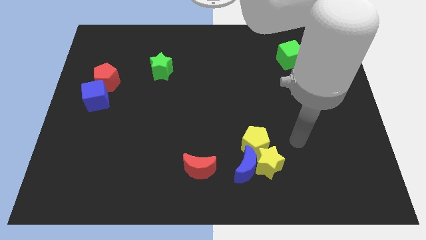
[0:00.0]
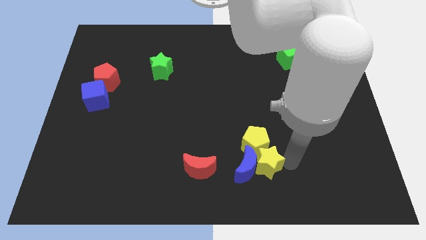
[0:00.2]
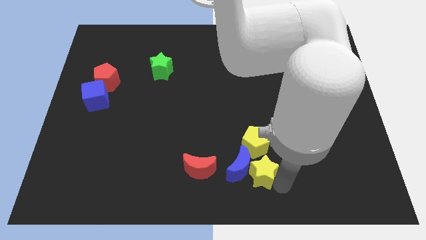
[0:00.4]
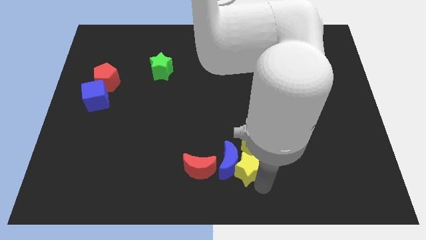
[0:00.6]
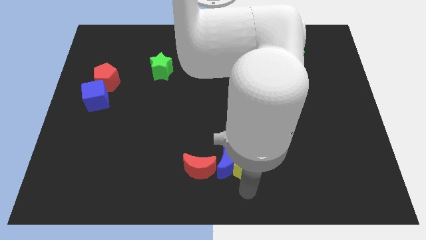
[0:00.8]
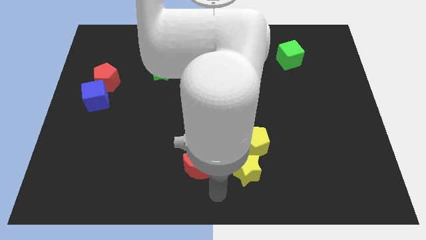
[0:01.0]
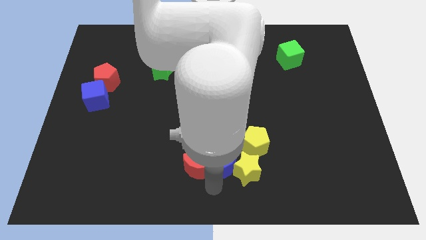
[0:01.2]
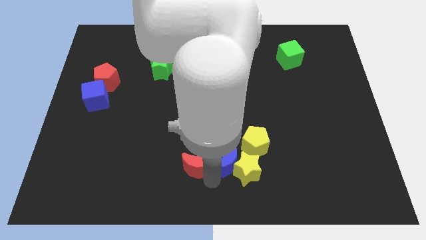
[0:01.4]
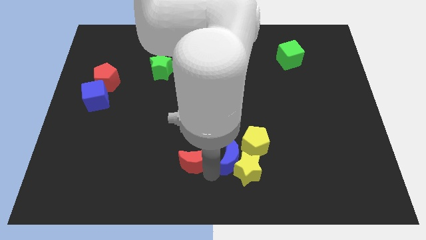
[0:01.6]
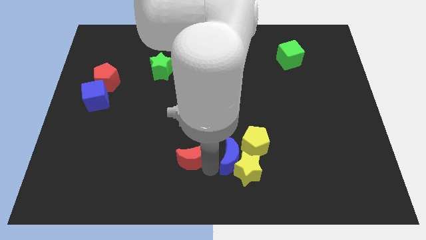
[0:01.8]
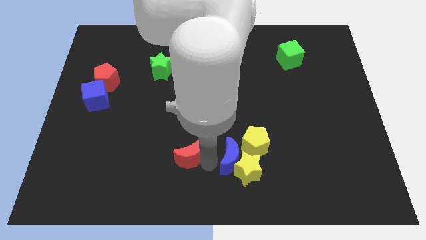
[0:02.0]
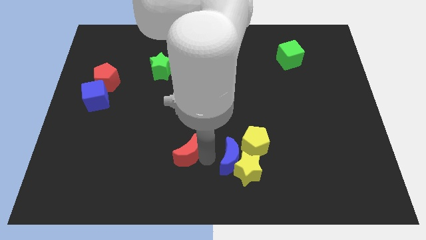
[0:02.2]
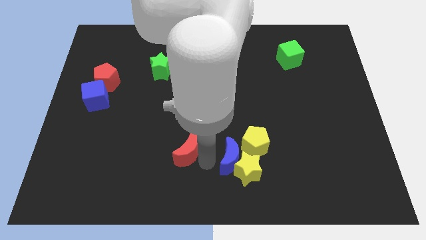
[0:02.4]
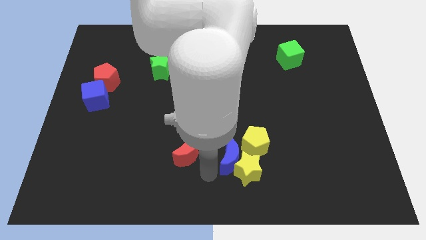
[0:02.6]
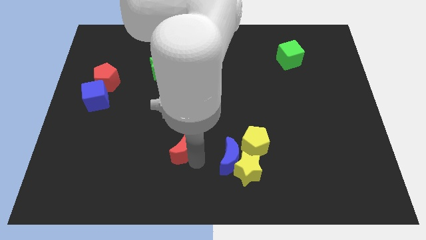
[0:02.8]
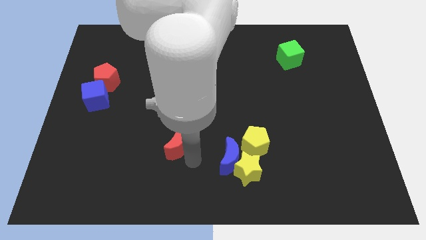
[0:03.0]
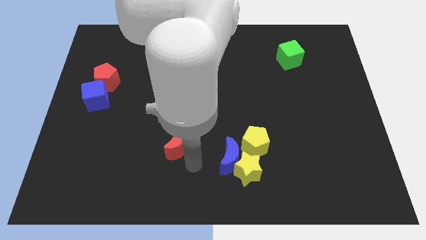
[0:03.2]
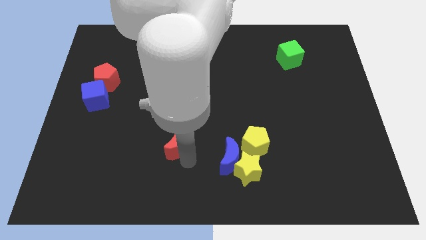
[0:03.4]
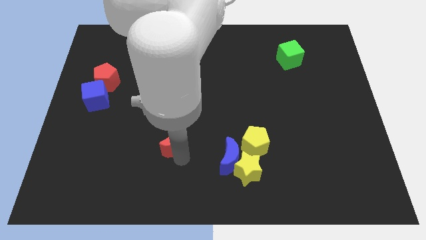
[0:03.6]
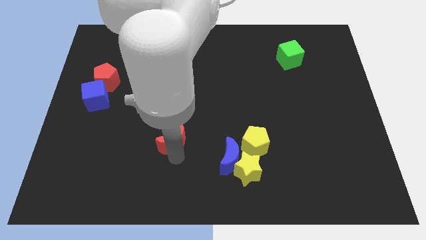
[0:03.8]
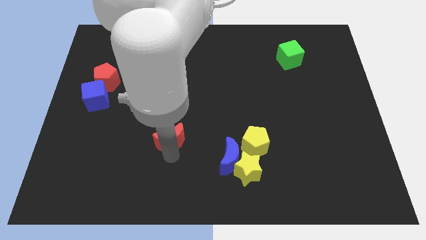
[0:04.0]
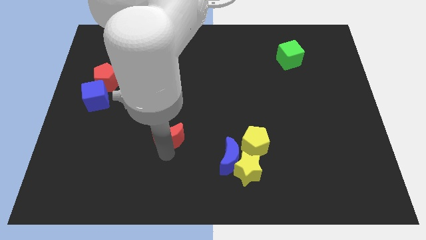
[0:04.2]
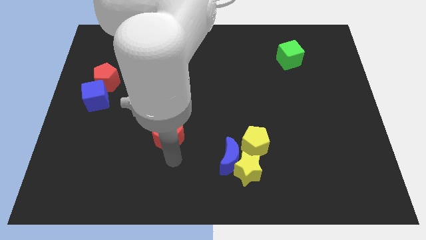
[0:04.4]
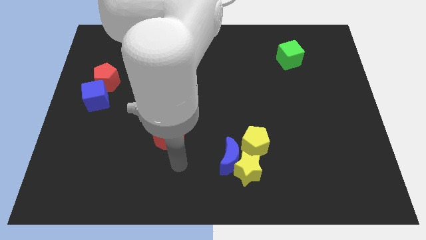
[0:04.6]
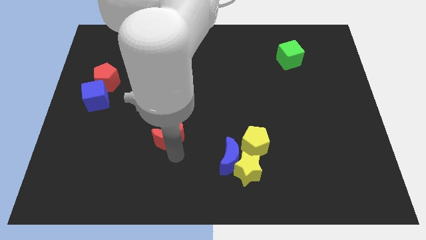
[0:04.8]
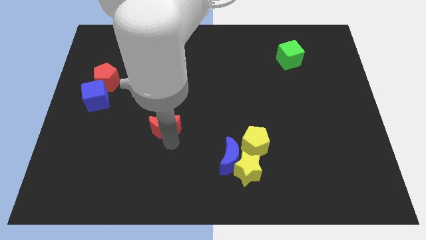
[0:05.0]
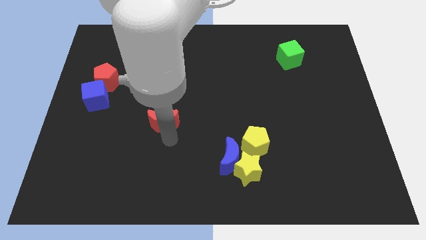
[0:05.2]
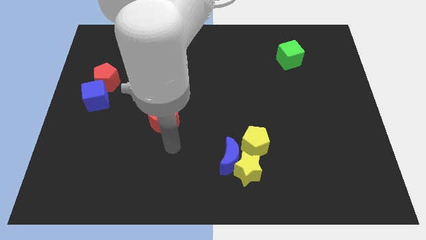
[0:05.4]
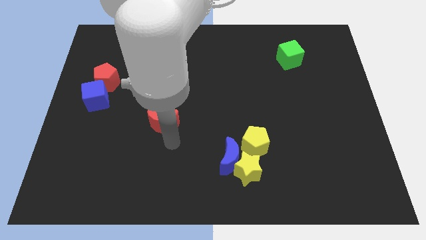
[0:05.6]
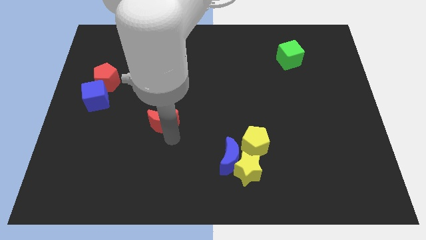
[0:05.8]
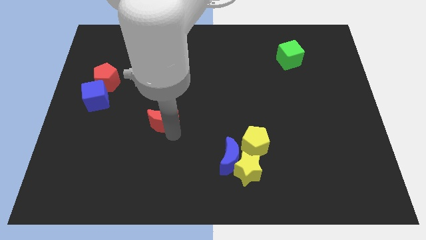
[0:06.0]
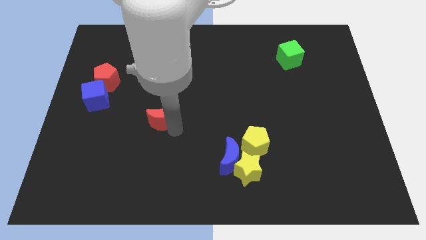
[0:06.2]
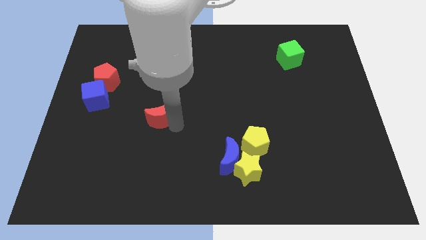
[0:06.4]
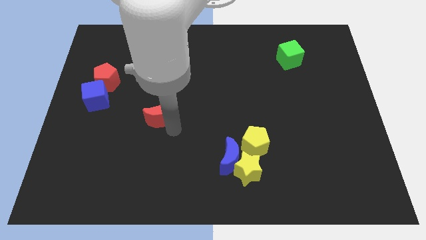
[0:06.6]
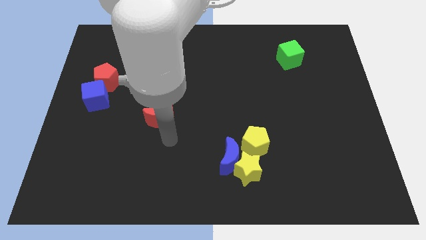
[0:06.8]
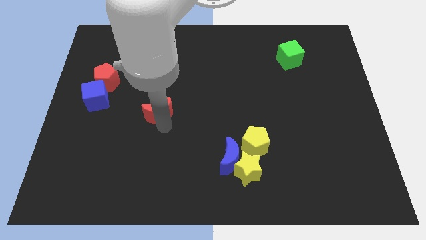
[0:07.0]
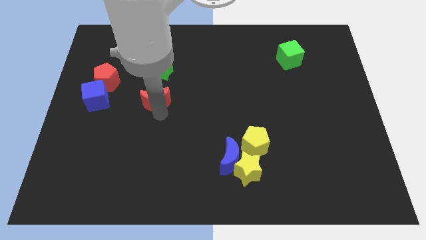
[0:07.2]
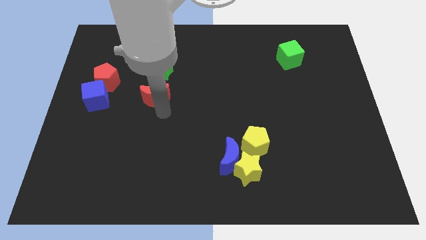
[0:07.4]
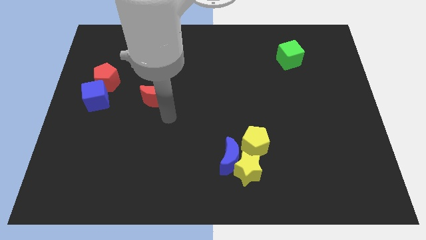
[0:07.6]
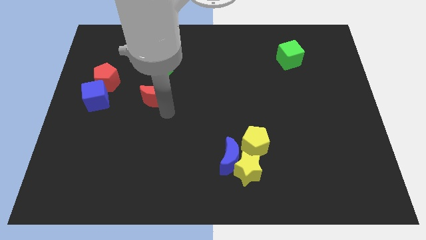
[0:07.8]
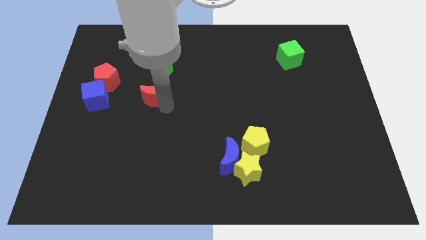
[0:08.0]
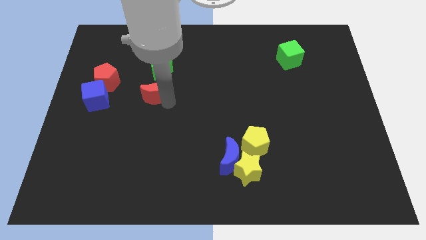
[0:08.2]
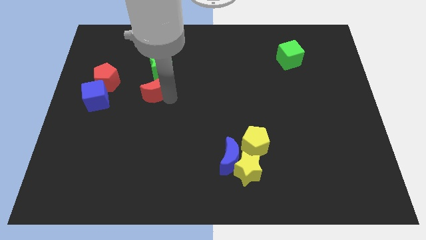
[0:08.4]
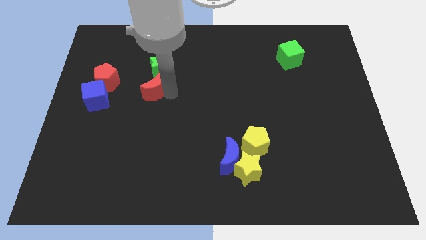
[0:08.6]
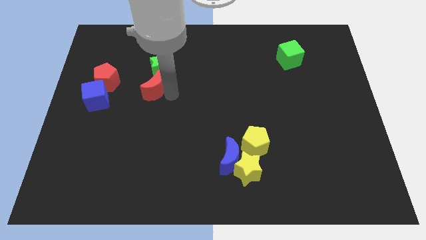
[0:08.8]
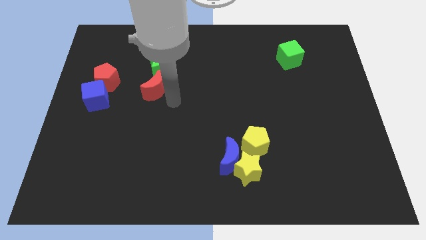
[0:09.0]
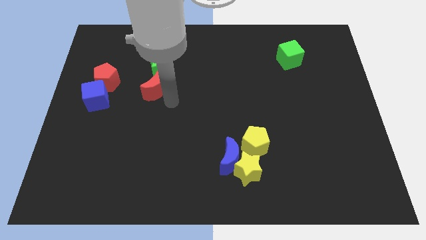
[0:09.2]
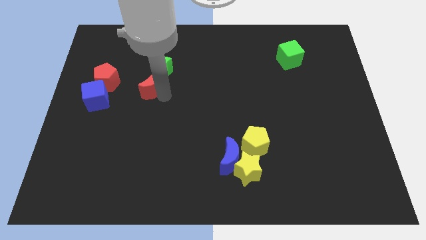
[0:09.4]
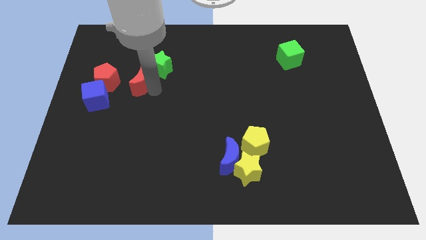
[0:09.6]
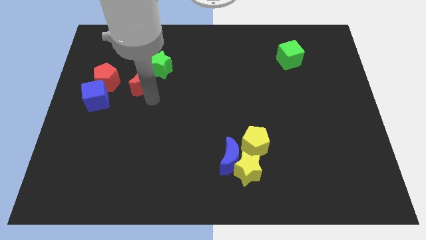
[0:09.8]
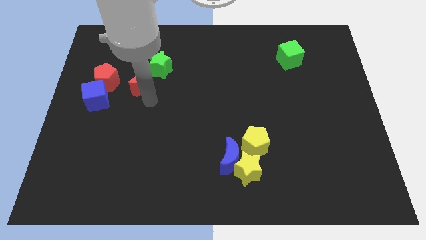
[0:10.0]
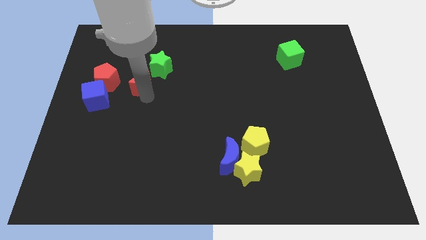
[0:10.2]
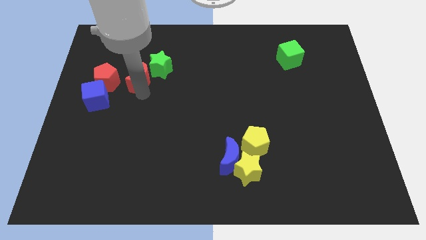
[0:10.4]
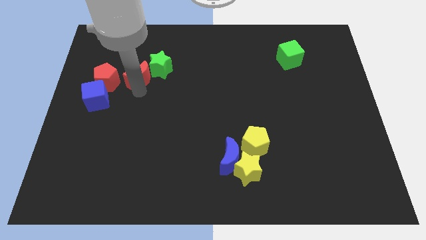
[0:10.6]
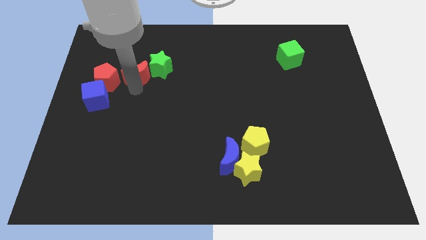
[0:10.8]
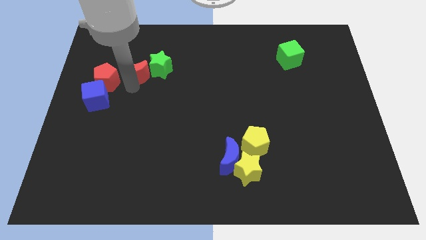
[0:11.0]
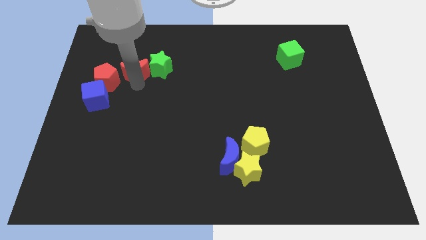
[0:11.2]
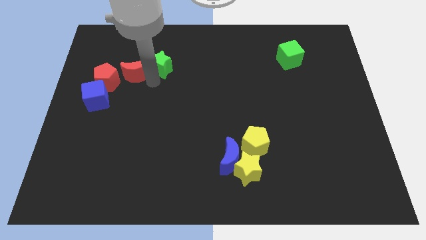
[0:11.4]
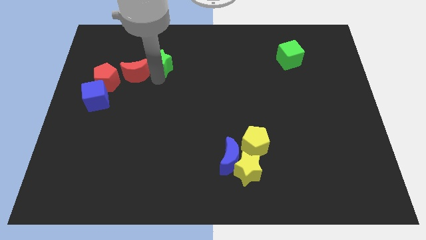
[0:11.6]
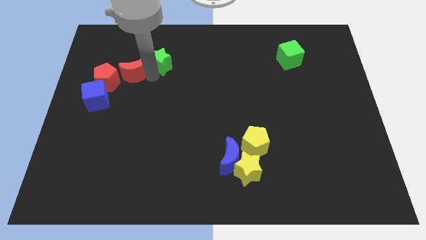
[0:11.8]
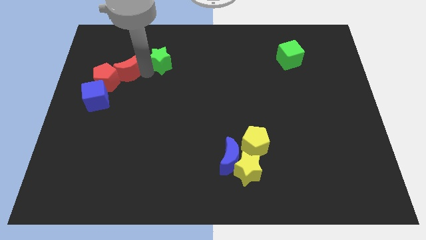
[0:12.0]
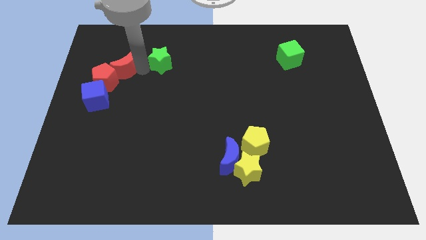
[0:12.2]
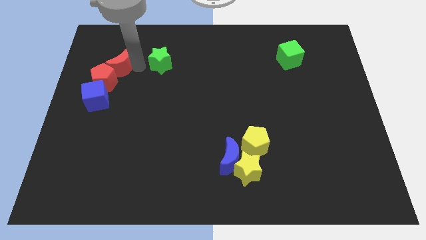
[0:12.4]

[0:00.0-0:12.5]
put the red moon to the top of the blue cube
